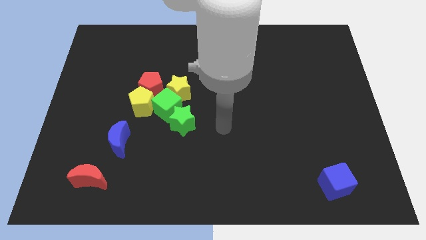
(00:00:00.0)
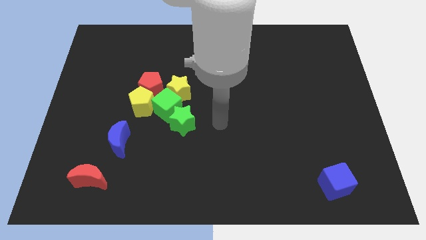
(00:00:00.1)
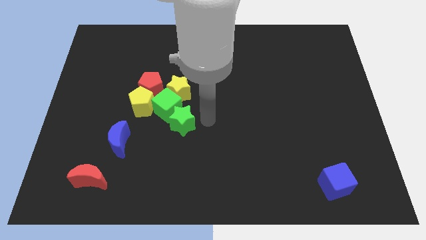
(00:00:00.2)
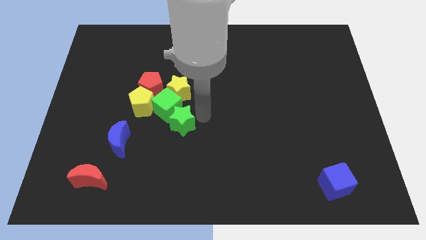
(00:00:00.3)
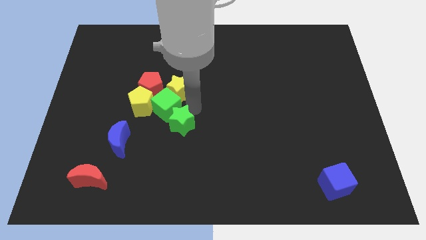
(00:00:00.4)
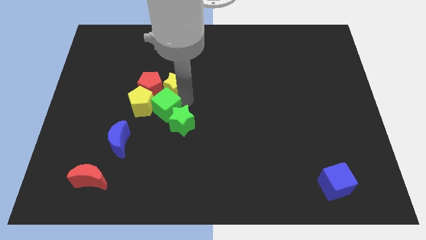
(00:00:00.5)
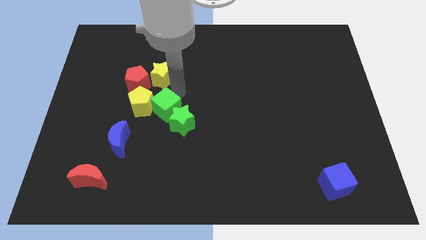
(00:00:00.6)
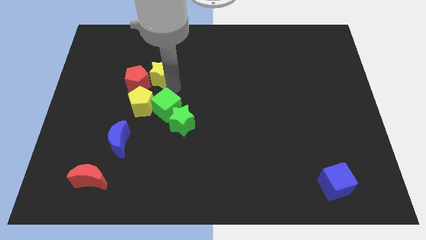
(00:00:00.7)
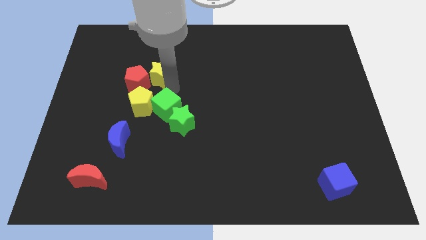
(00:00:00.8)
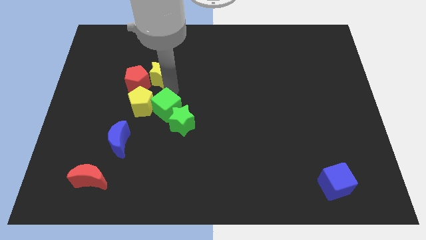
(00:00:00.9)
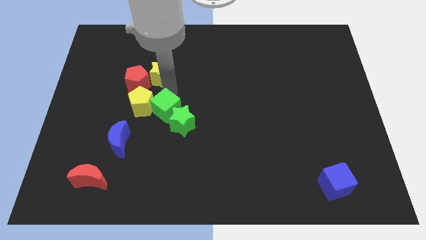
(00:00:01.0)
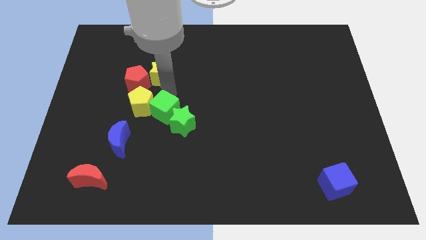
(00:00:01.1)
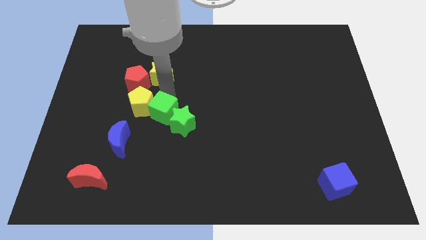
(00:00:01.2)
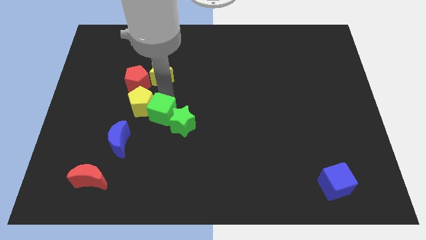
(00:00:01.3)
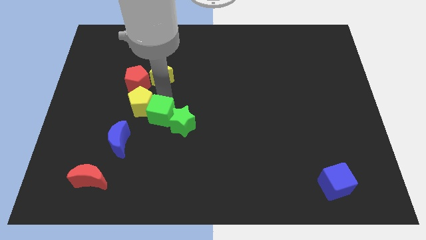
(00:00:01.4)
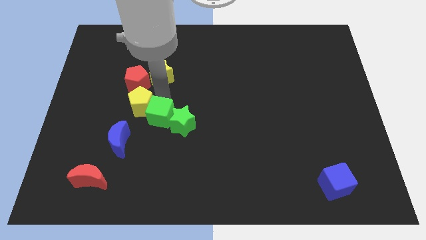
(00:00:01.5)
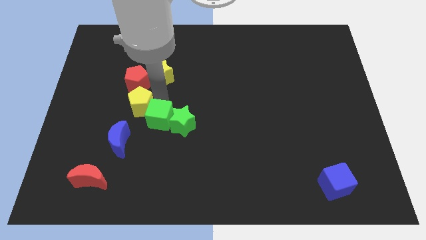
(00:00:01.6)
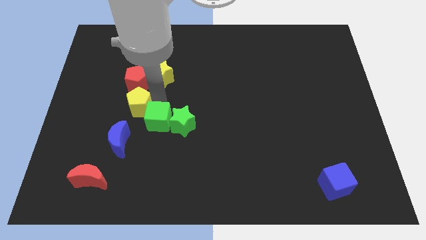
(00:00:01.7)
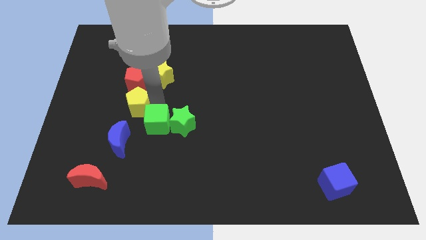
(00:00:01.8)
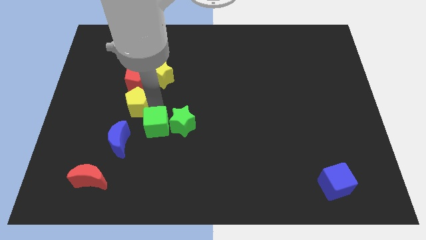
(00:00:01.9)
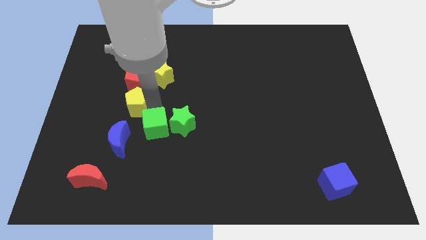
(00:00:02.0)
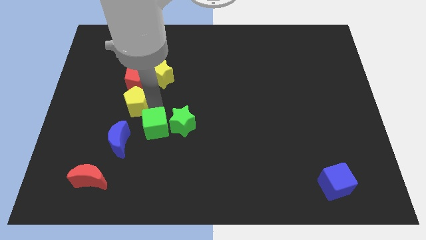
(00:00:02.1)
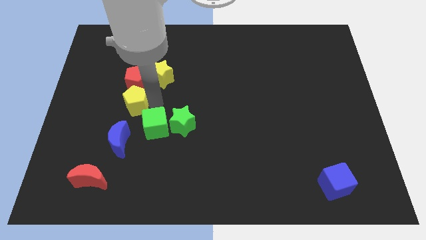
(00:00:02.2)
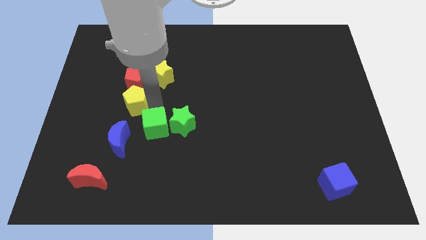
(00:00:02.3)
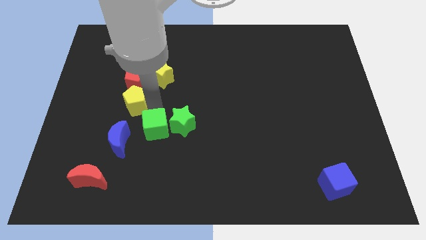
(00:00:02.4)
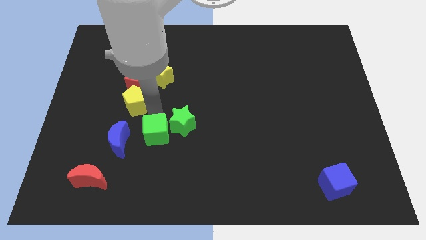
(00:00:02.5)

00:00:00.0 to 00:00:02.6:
pull the green cube apart from the clump

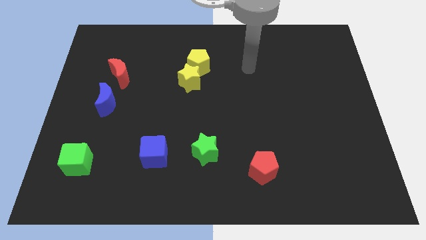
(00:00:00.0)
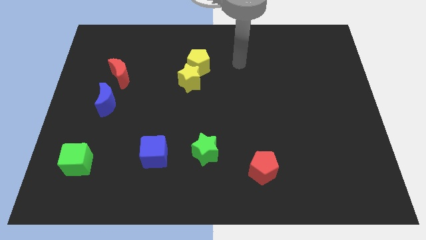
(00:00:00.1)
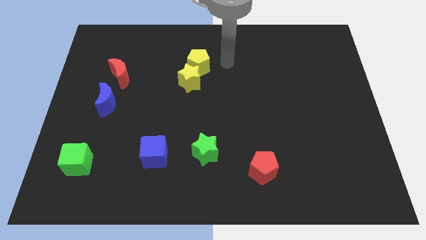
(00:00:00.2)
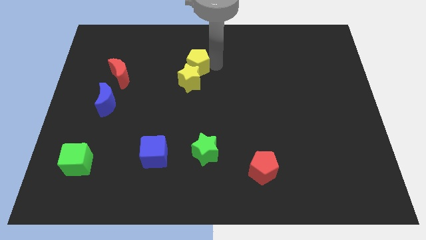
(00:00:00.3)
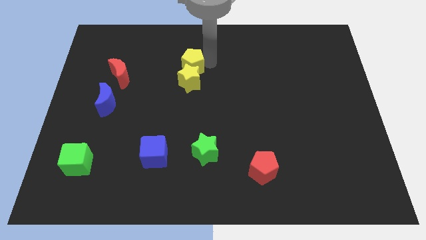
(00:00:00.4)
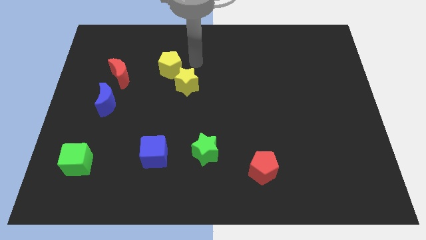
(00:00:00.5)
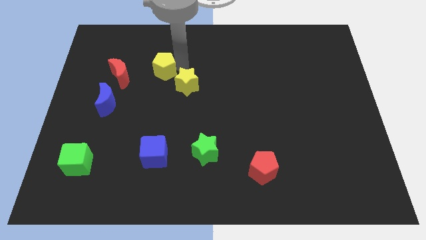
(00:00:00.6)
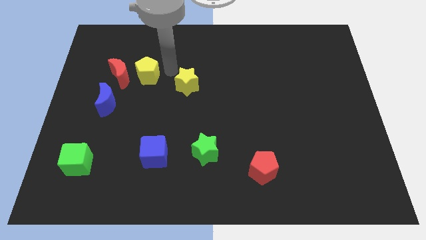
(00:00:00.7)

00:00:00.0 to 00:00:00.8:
move the yellow star away from the yellow pentagon

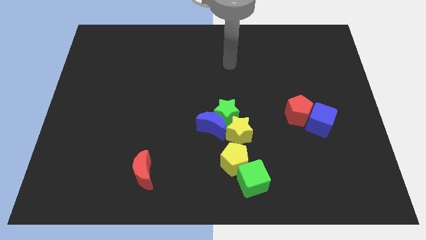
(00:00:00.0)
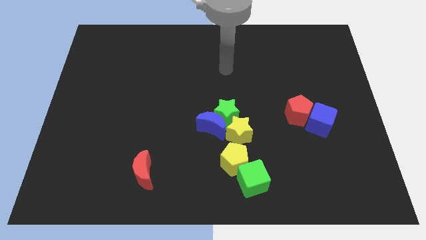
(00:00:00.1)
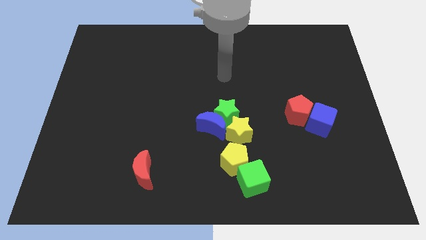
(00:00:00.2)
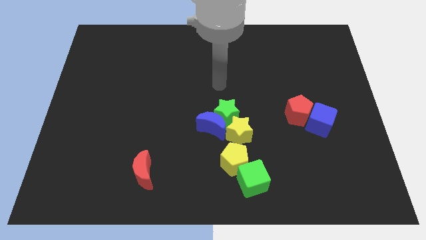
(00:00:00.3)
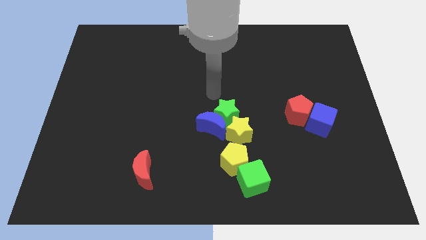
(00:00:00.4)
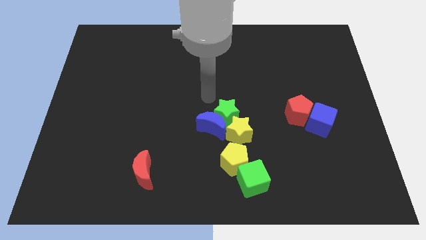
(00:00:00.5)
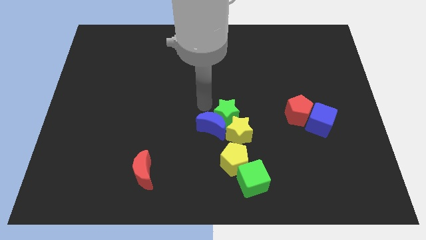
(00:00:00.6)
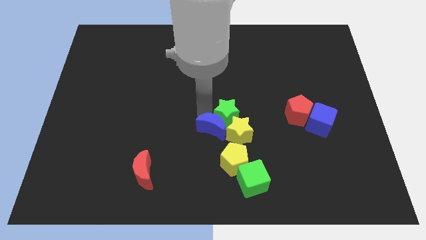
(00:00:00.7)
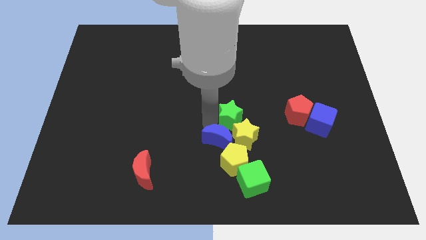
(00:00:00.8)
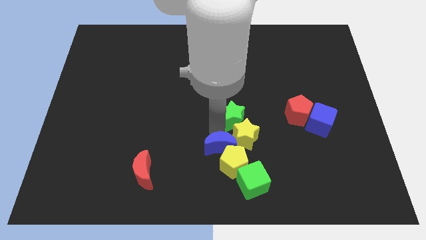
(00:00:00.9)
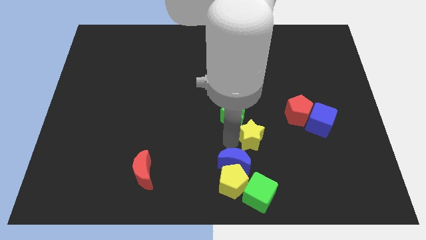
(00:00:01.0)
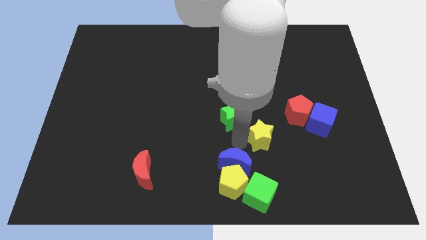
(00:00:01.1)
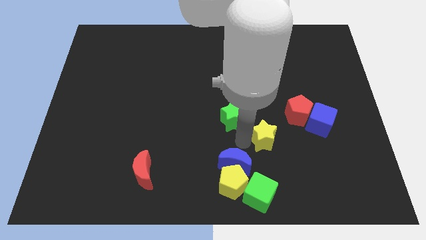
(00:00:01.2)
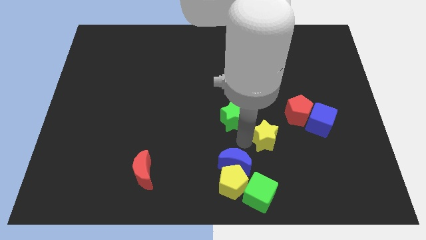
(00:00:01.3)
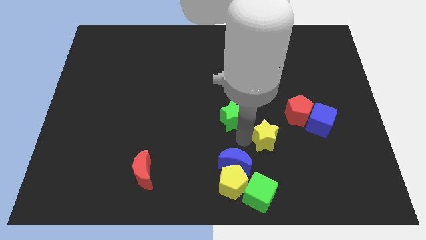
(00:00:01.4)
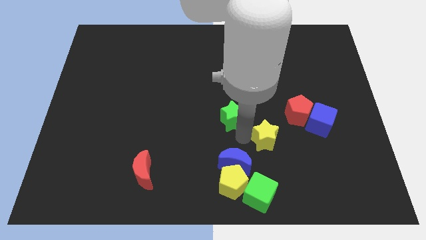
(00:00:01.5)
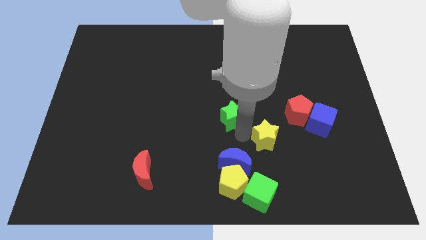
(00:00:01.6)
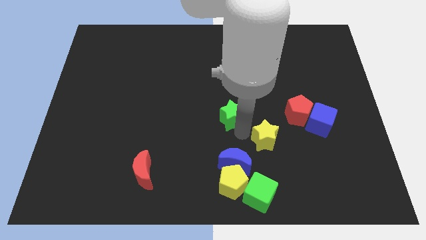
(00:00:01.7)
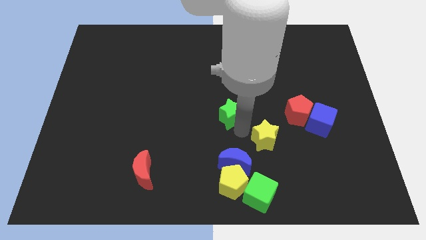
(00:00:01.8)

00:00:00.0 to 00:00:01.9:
move the green star away from the blue moon and yellow star

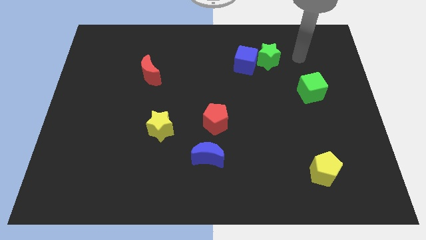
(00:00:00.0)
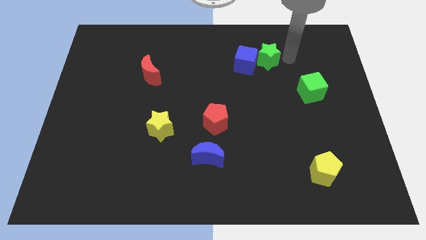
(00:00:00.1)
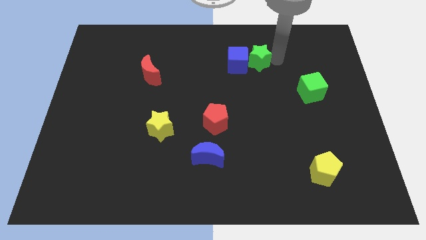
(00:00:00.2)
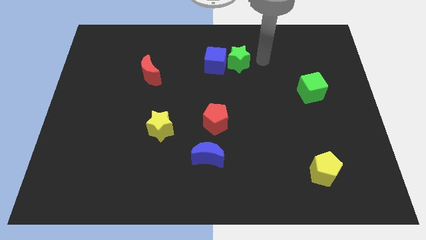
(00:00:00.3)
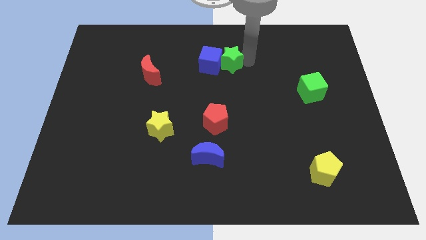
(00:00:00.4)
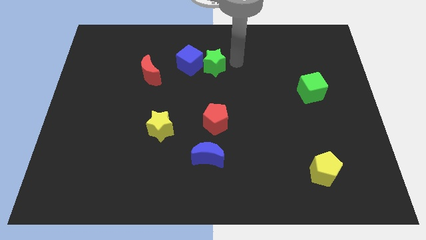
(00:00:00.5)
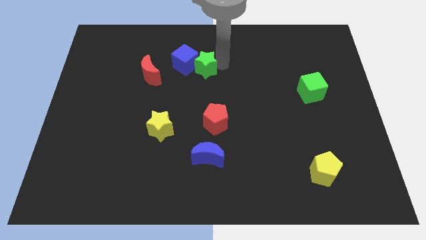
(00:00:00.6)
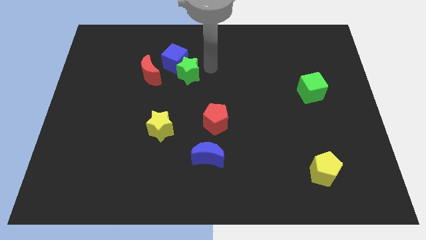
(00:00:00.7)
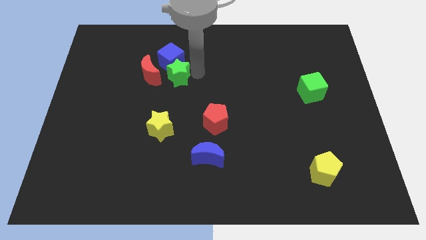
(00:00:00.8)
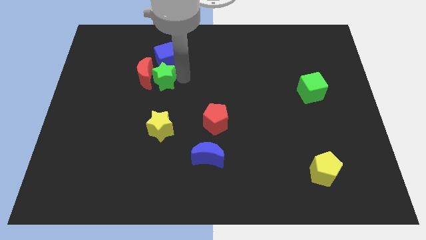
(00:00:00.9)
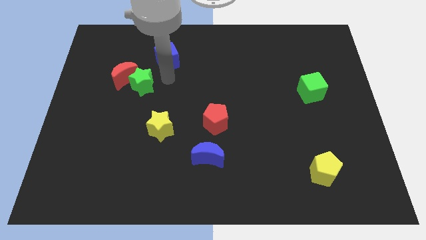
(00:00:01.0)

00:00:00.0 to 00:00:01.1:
separate the blue cube from the green star

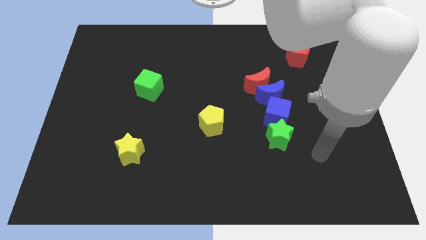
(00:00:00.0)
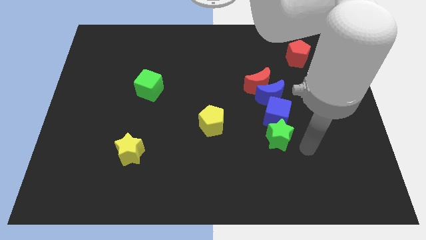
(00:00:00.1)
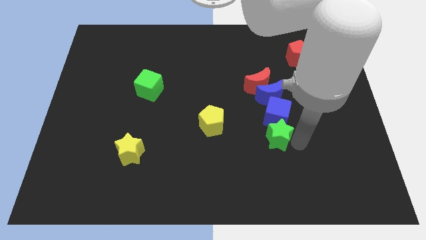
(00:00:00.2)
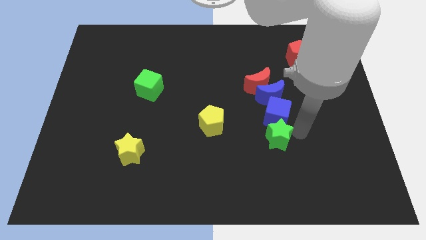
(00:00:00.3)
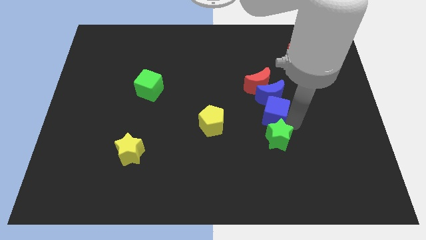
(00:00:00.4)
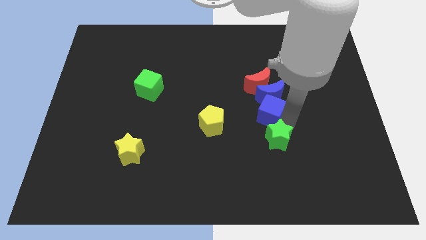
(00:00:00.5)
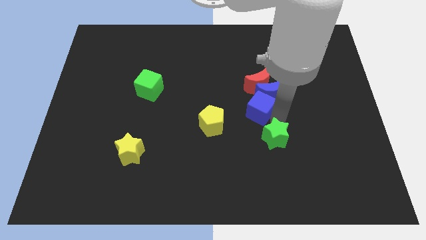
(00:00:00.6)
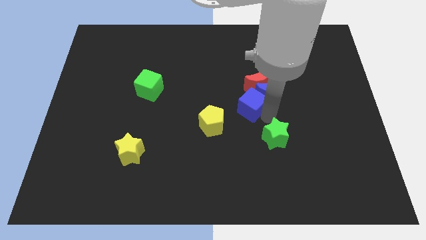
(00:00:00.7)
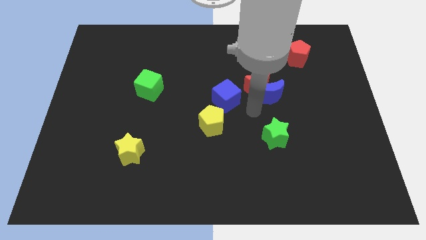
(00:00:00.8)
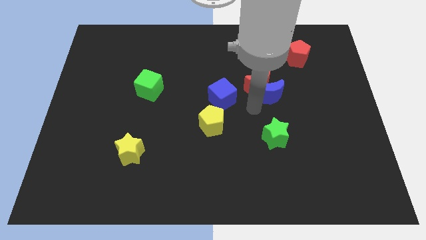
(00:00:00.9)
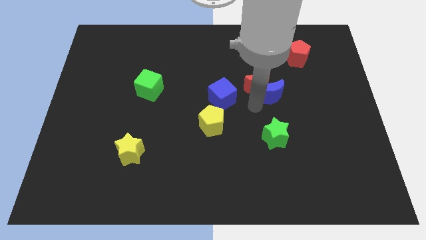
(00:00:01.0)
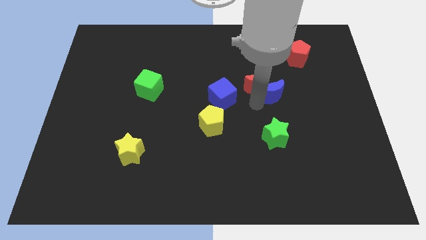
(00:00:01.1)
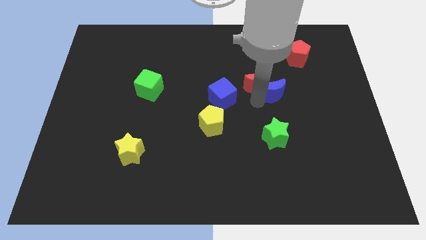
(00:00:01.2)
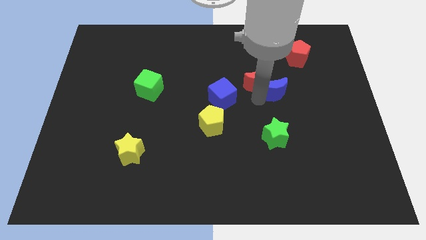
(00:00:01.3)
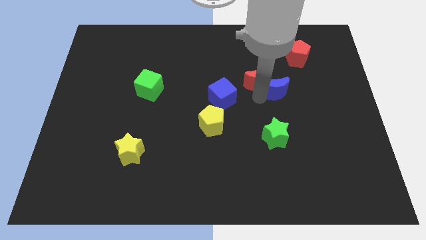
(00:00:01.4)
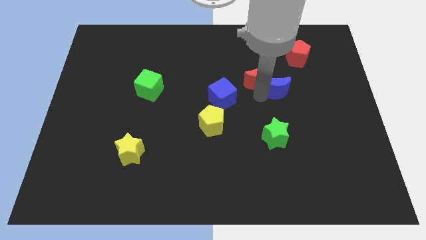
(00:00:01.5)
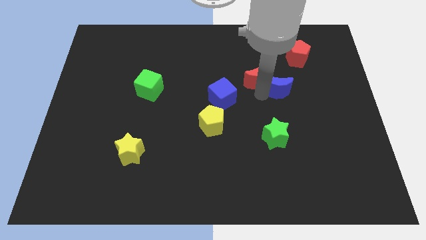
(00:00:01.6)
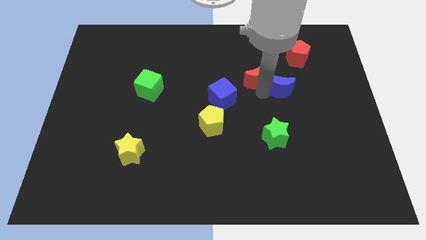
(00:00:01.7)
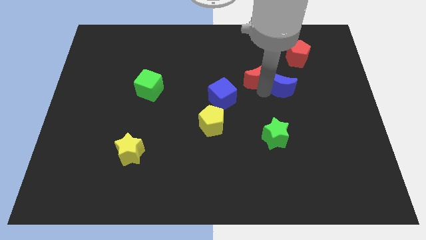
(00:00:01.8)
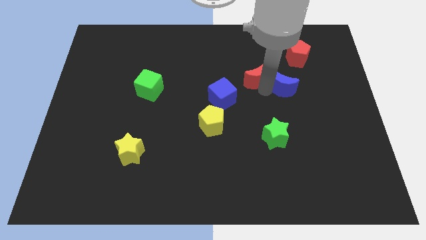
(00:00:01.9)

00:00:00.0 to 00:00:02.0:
move the blue moon away from the red moon and blue cube

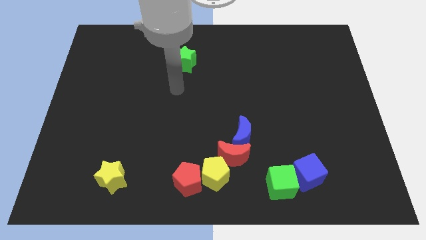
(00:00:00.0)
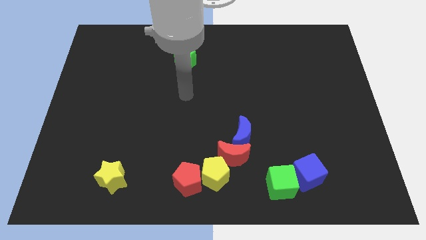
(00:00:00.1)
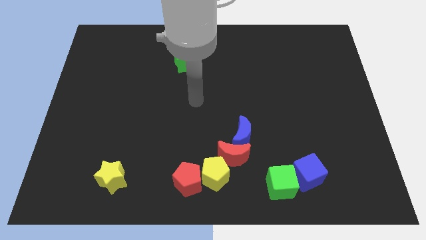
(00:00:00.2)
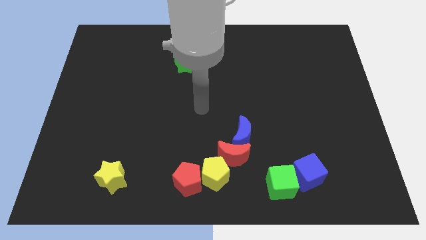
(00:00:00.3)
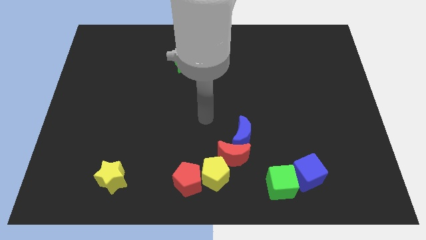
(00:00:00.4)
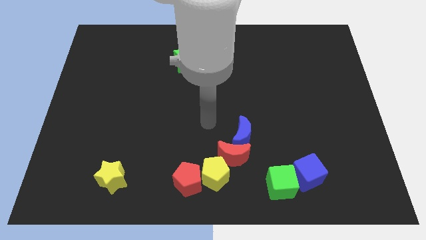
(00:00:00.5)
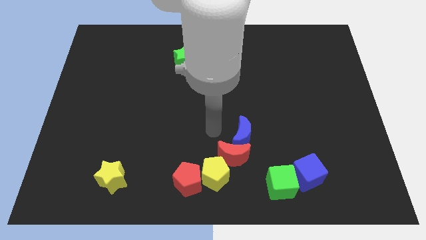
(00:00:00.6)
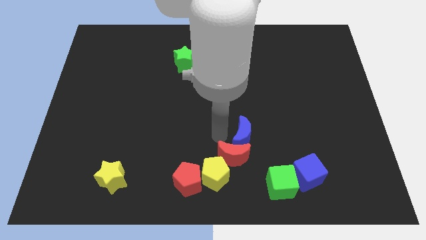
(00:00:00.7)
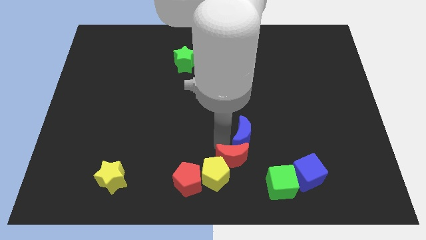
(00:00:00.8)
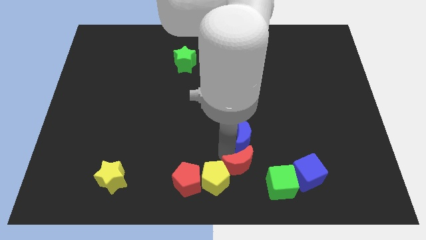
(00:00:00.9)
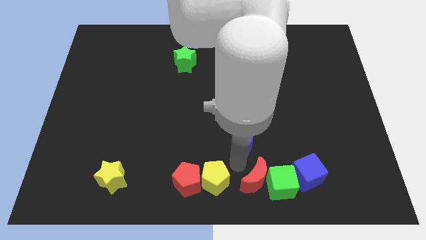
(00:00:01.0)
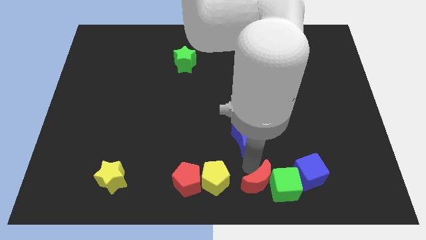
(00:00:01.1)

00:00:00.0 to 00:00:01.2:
move the blue moon away from the red moon
